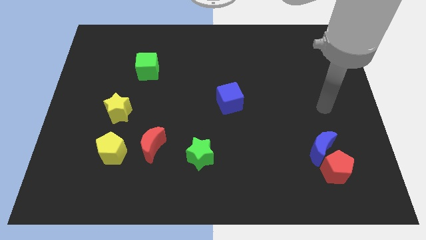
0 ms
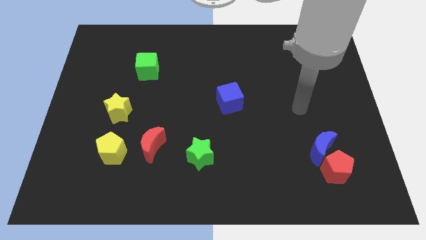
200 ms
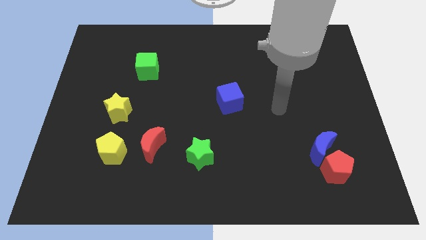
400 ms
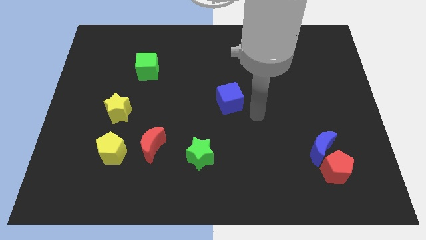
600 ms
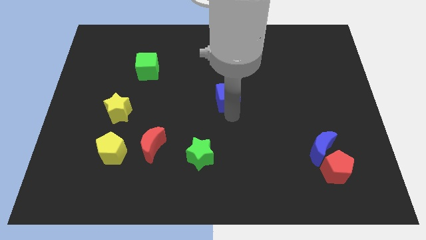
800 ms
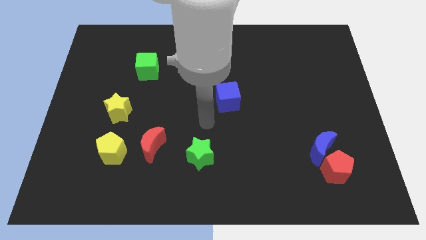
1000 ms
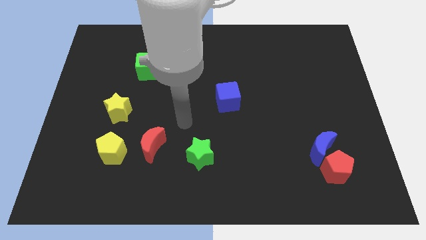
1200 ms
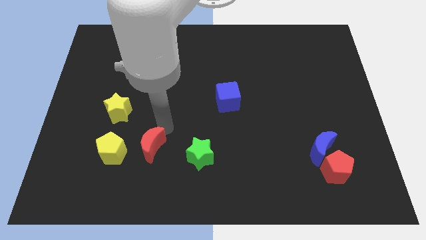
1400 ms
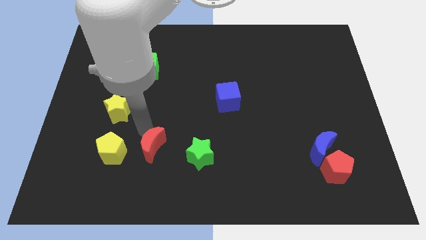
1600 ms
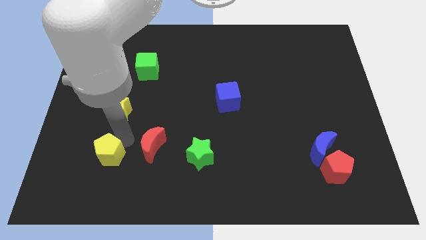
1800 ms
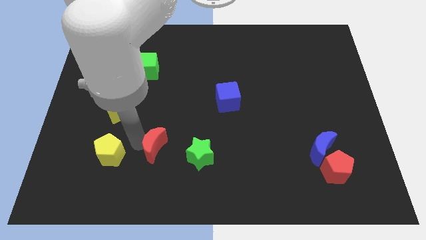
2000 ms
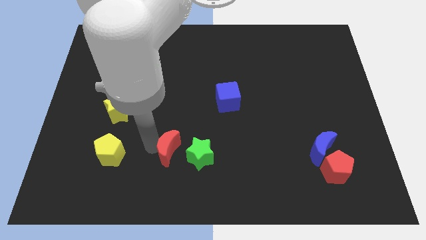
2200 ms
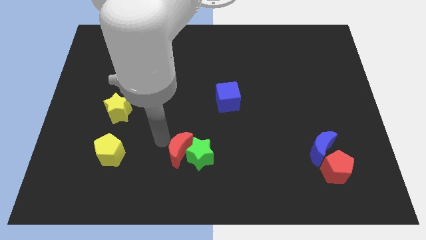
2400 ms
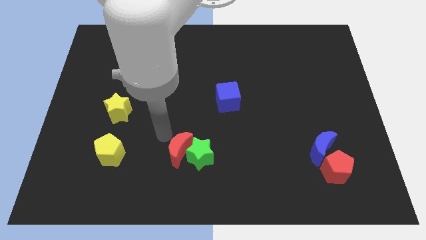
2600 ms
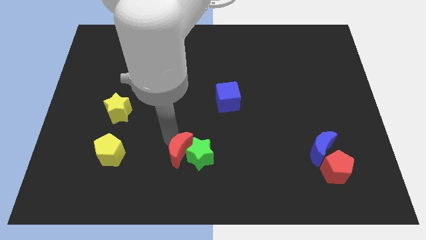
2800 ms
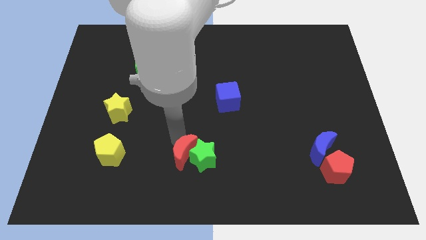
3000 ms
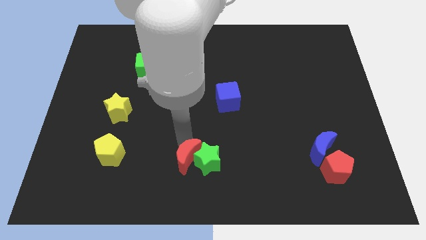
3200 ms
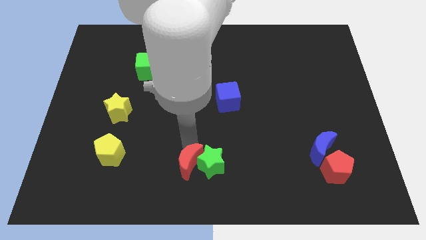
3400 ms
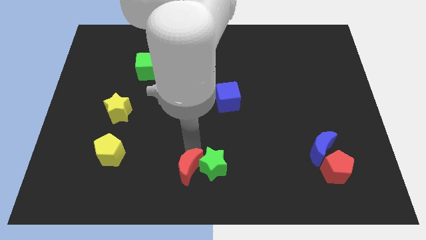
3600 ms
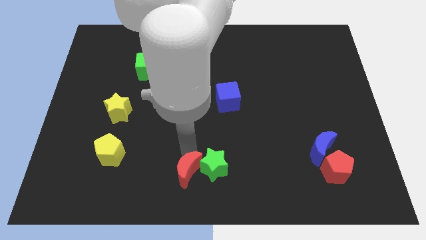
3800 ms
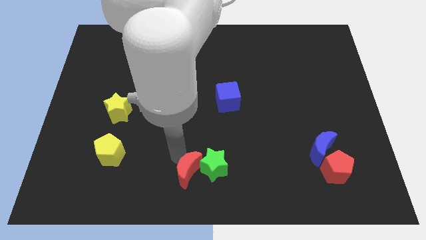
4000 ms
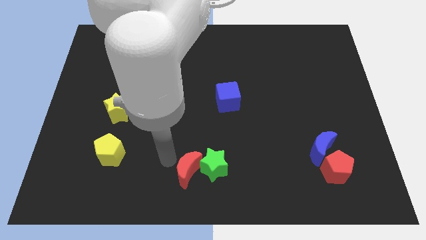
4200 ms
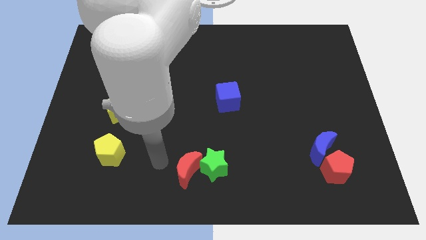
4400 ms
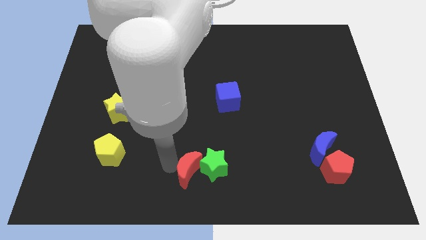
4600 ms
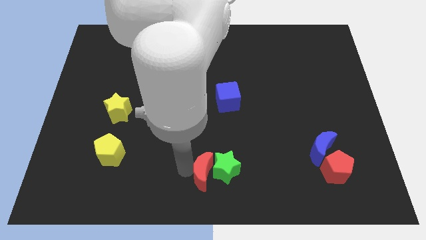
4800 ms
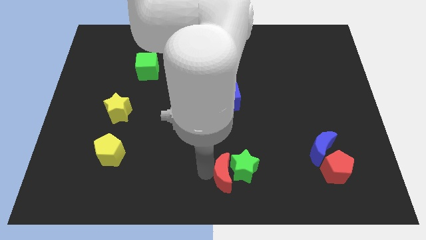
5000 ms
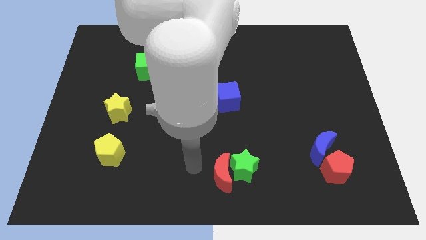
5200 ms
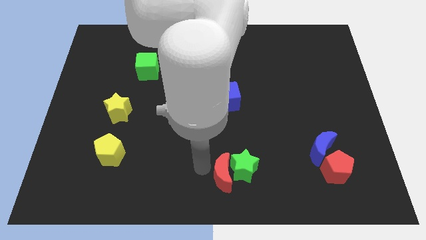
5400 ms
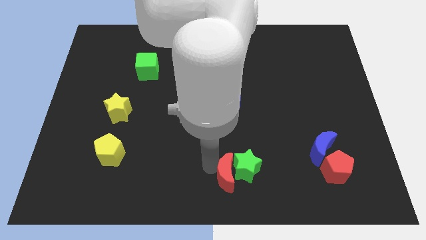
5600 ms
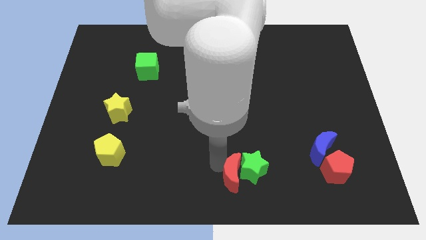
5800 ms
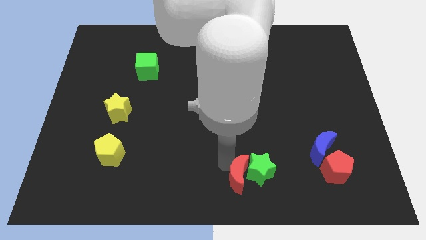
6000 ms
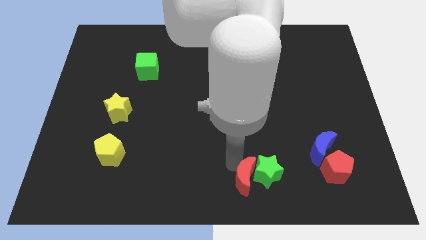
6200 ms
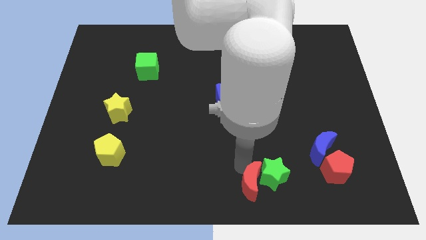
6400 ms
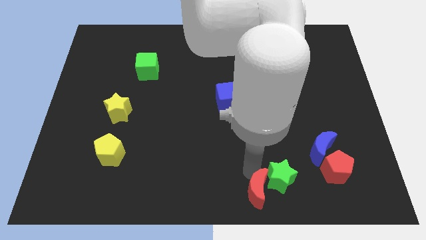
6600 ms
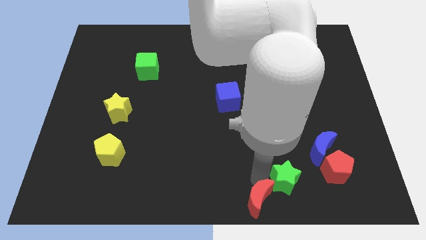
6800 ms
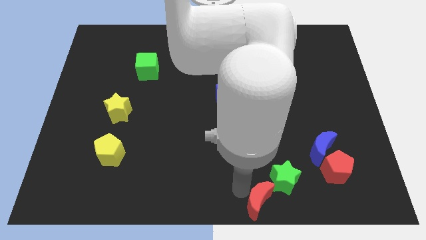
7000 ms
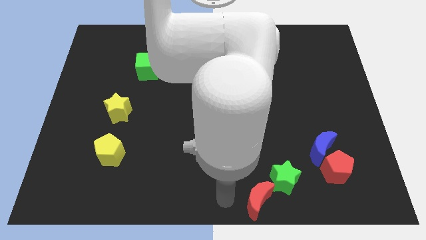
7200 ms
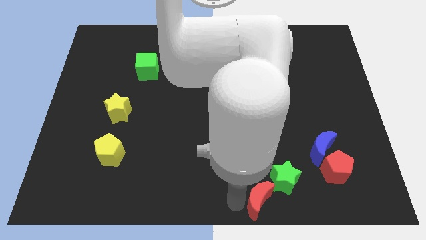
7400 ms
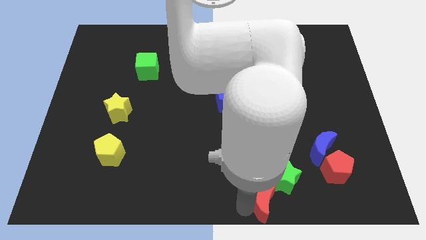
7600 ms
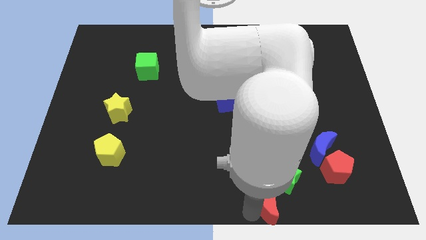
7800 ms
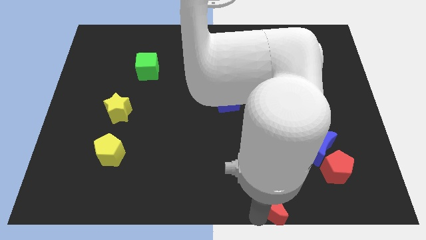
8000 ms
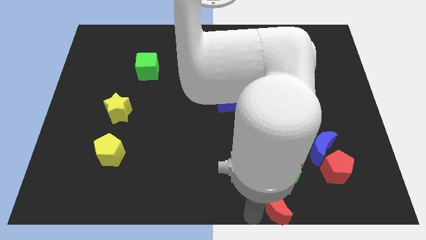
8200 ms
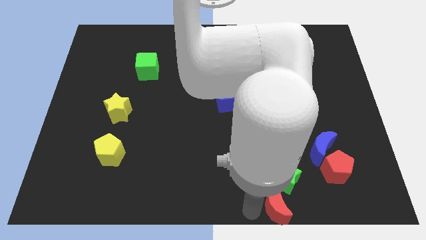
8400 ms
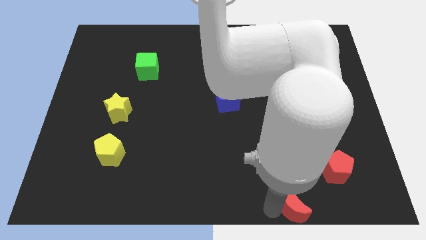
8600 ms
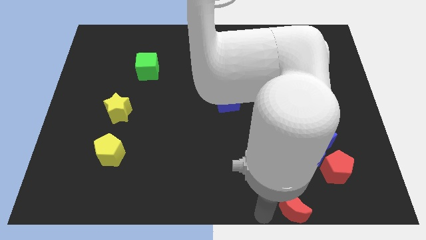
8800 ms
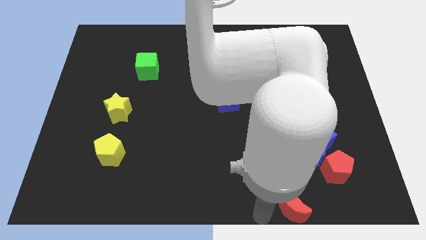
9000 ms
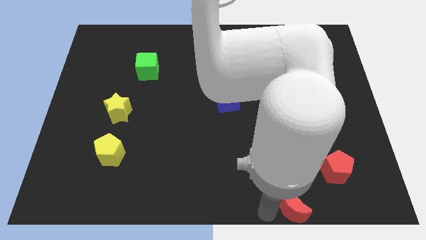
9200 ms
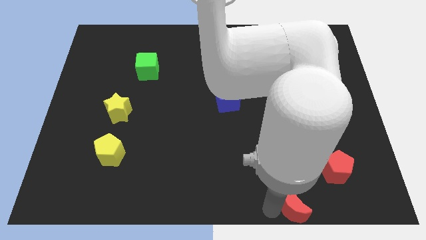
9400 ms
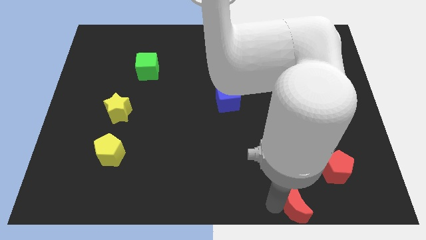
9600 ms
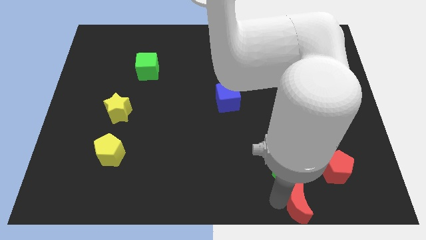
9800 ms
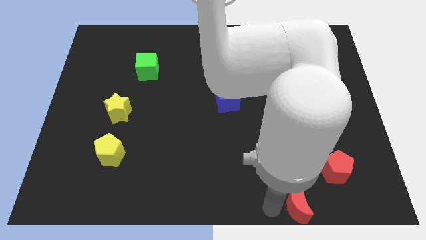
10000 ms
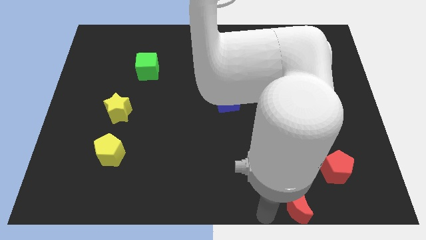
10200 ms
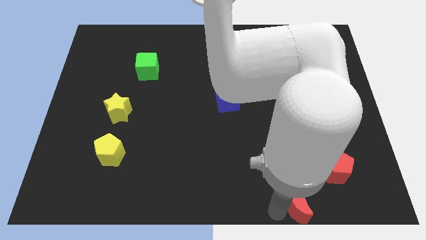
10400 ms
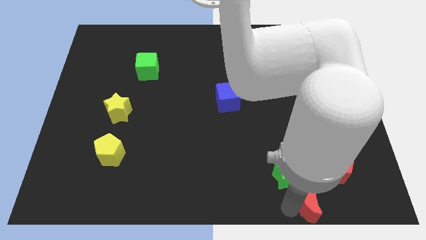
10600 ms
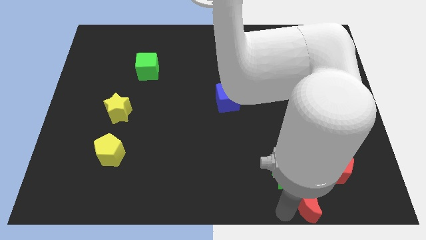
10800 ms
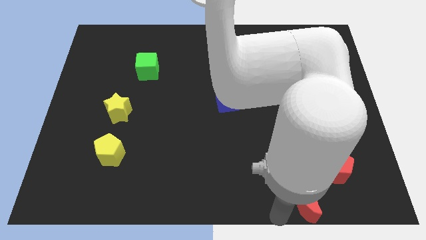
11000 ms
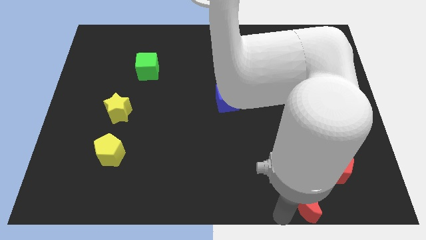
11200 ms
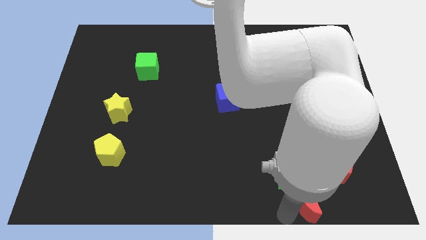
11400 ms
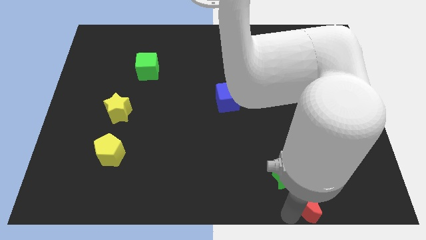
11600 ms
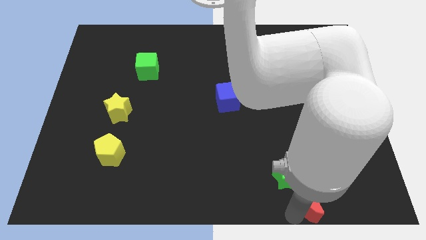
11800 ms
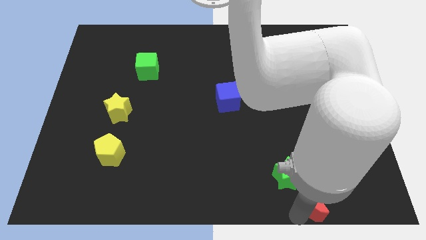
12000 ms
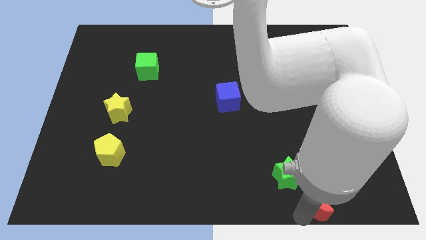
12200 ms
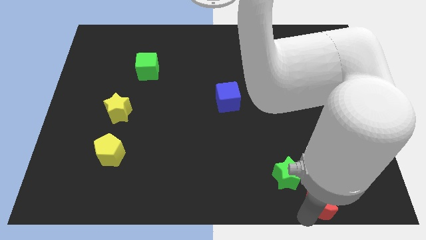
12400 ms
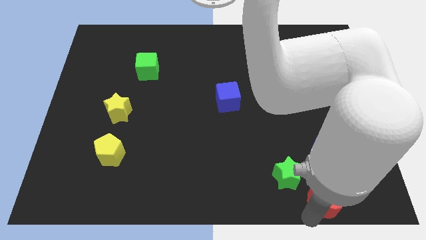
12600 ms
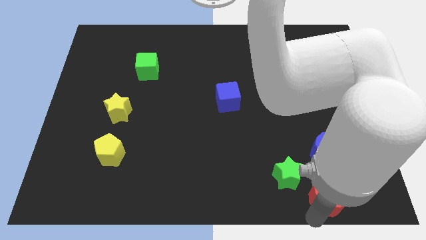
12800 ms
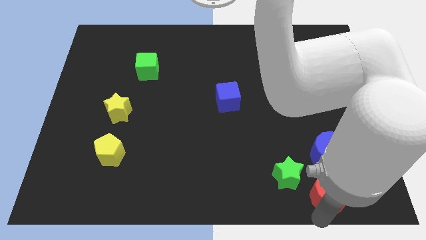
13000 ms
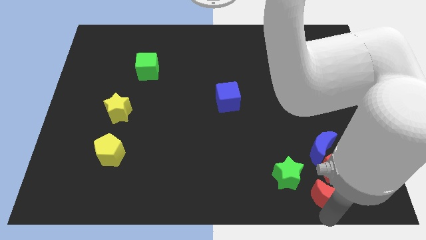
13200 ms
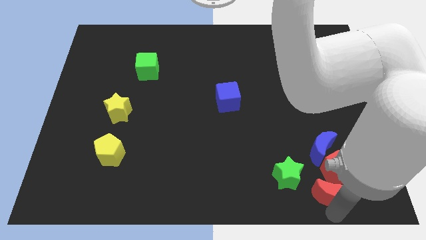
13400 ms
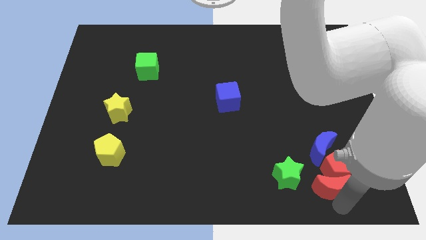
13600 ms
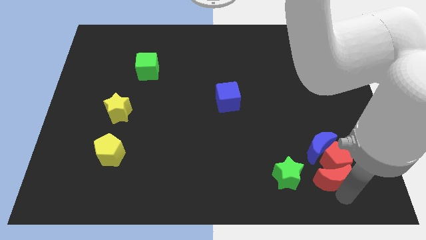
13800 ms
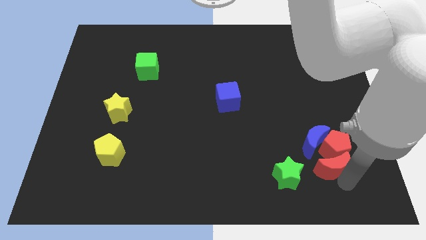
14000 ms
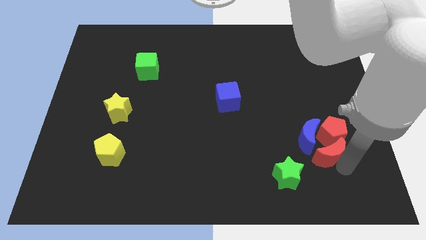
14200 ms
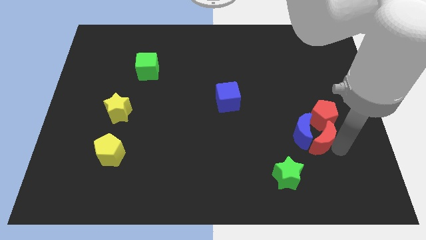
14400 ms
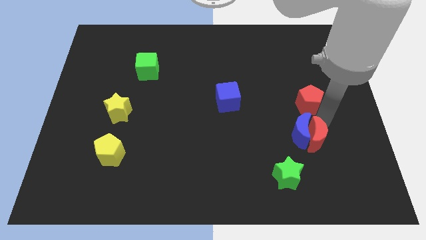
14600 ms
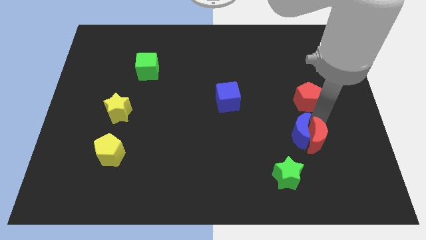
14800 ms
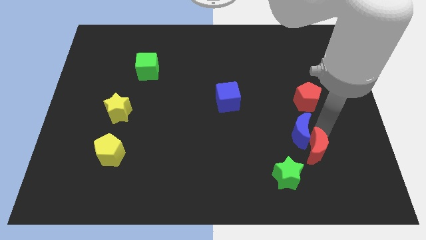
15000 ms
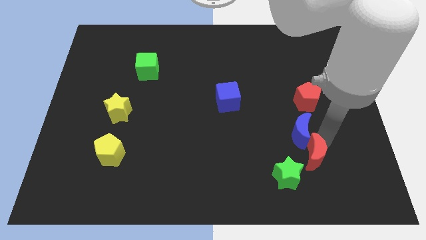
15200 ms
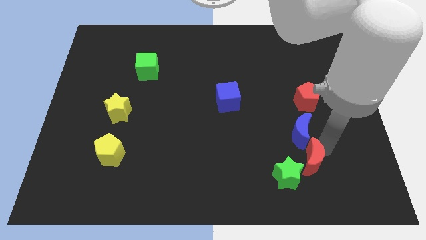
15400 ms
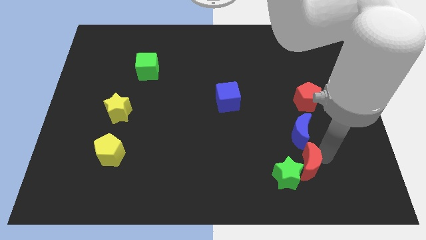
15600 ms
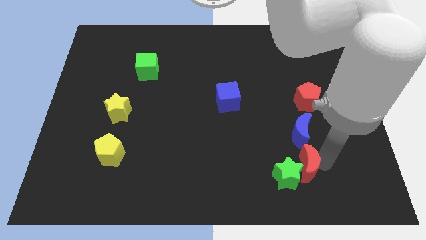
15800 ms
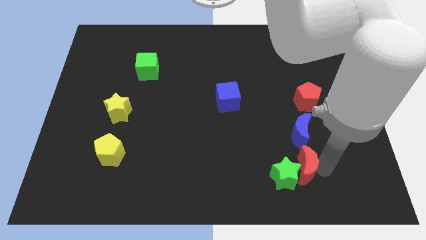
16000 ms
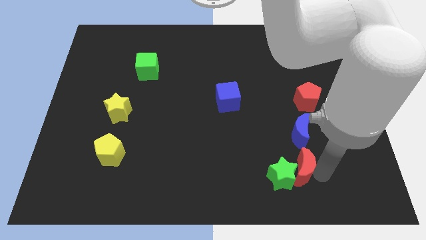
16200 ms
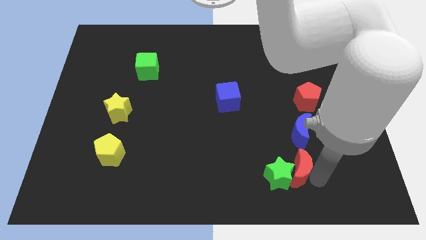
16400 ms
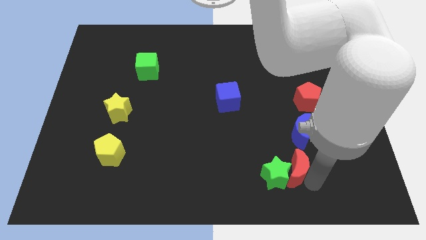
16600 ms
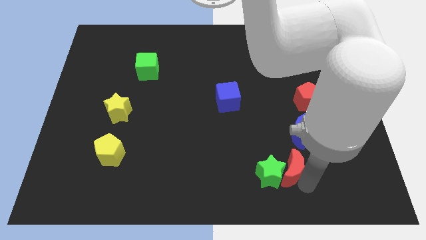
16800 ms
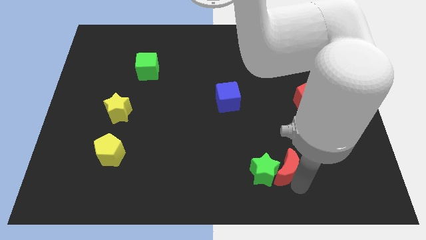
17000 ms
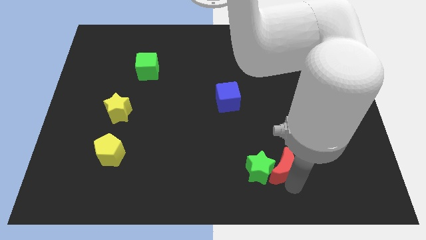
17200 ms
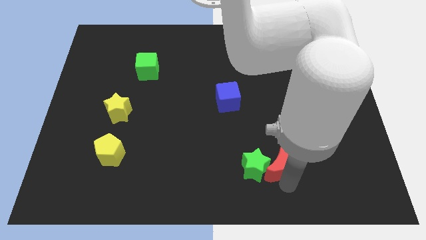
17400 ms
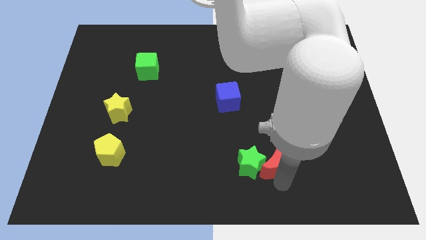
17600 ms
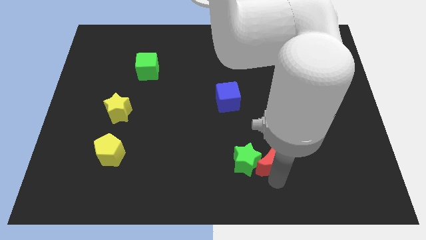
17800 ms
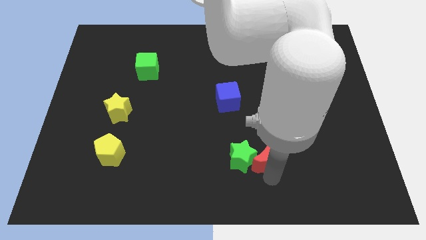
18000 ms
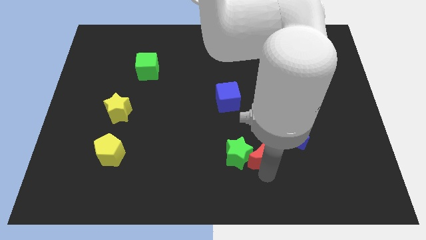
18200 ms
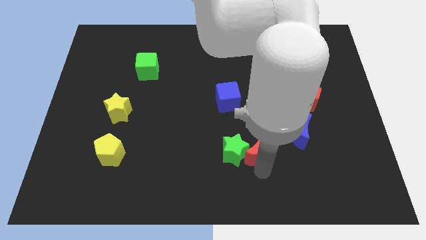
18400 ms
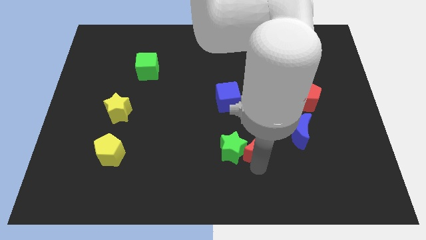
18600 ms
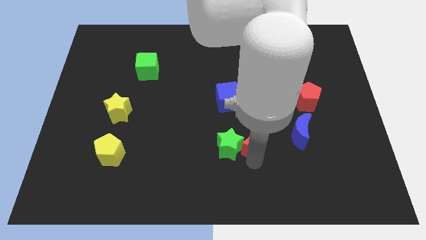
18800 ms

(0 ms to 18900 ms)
put the red moon to the bottom right side of the green star
